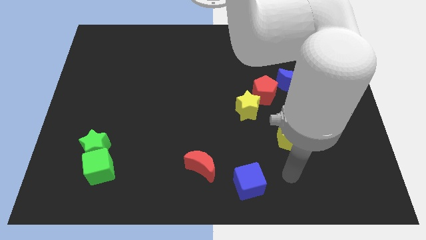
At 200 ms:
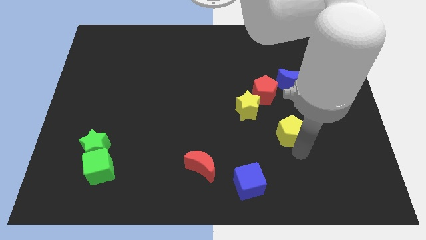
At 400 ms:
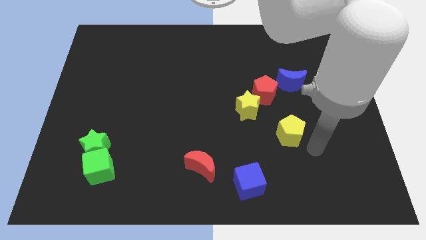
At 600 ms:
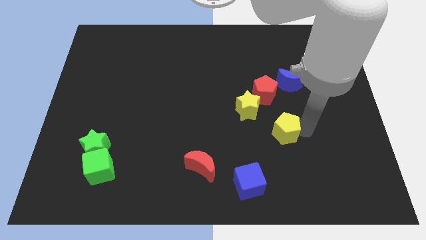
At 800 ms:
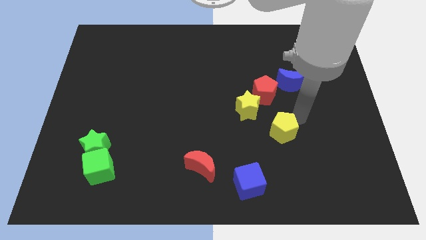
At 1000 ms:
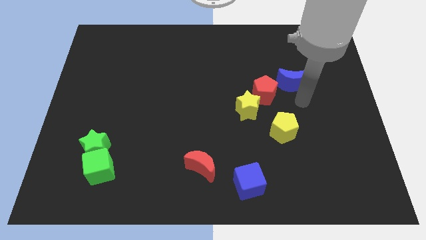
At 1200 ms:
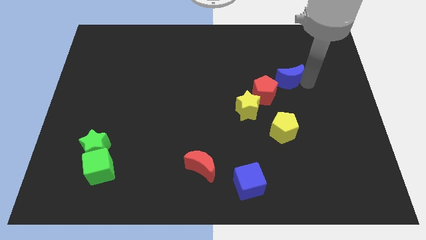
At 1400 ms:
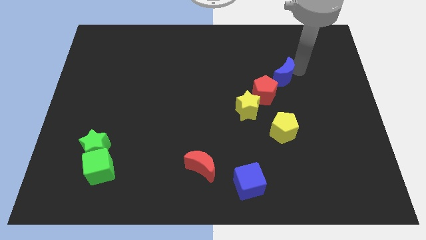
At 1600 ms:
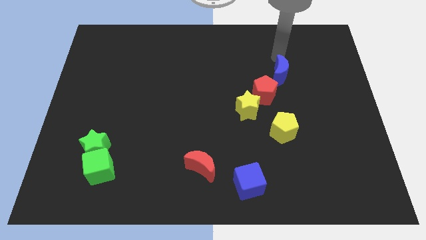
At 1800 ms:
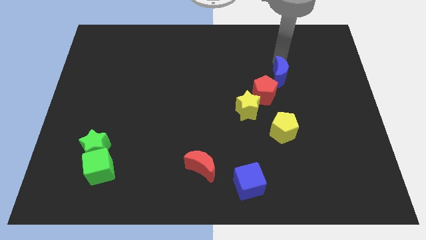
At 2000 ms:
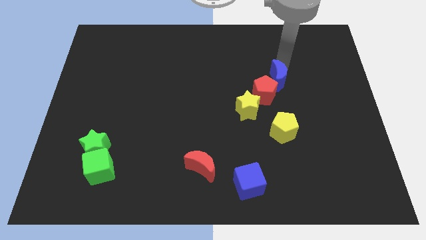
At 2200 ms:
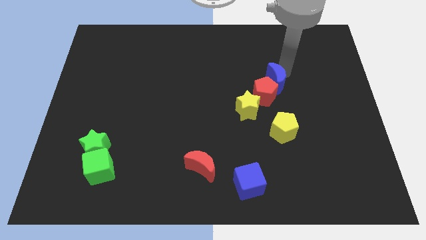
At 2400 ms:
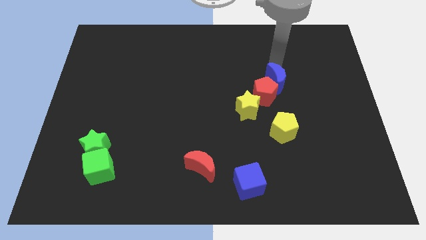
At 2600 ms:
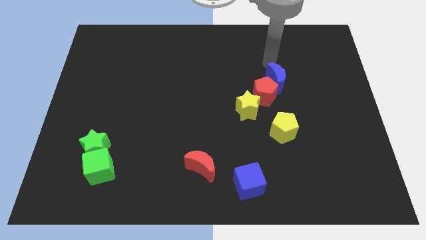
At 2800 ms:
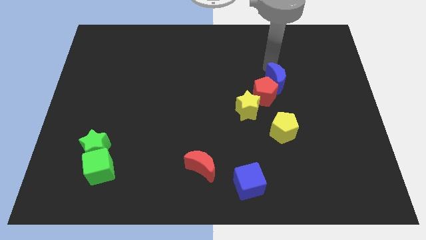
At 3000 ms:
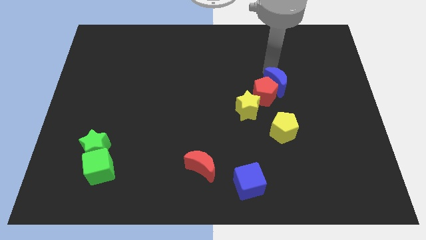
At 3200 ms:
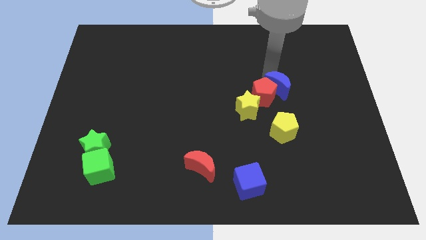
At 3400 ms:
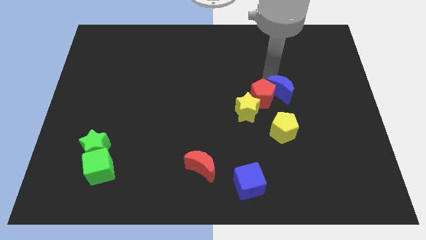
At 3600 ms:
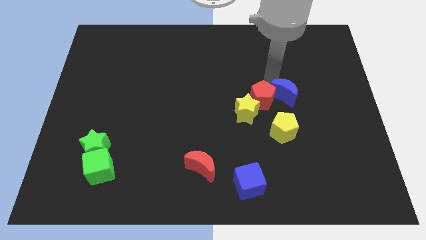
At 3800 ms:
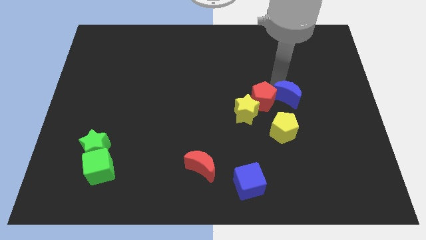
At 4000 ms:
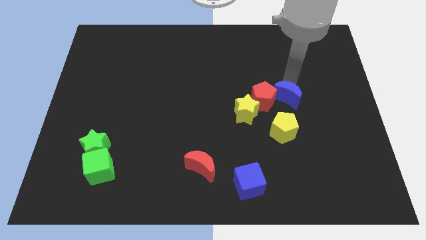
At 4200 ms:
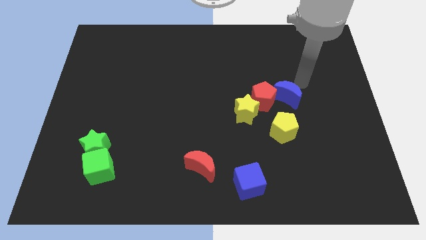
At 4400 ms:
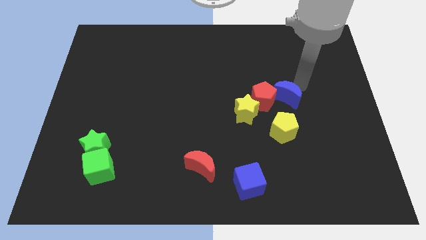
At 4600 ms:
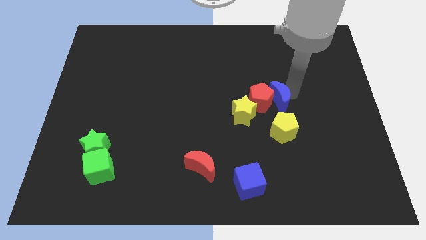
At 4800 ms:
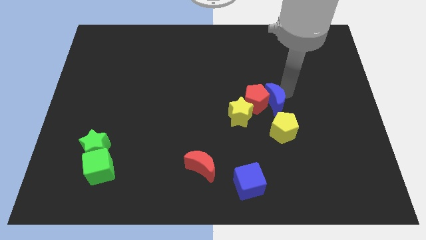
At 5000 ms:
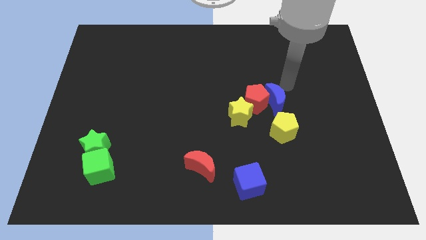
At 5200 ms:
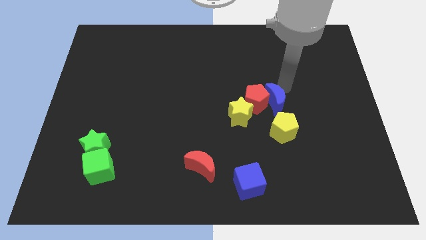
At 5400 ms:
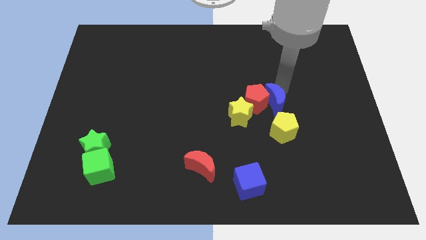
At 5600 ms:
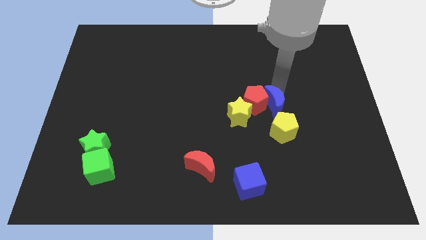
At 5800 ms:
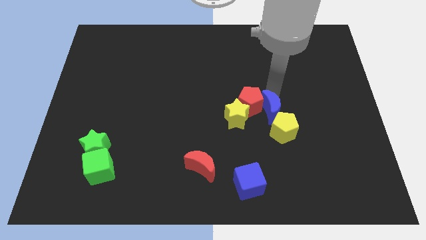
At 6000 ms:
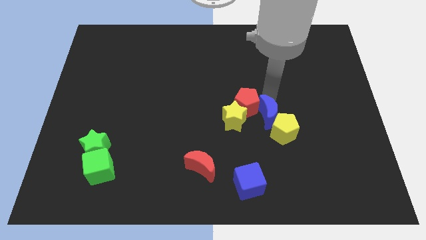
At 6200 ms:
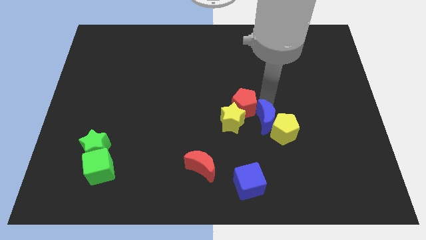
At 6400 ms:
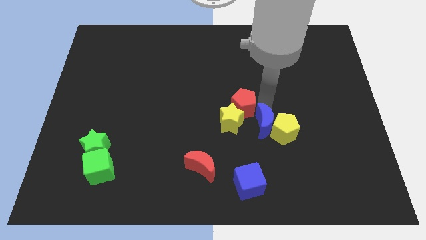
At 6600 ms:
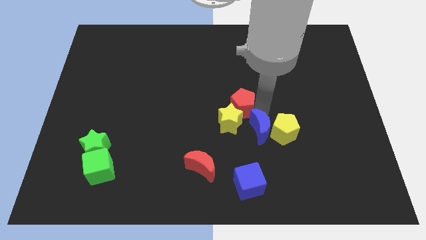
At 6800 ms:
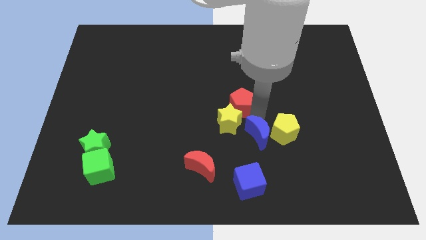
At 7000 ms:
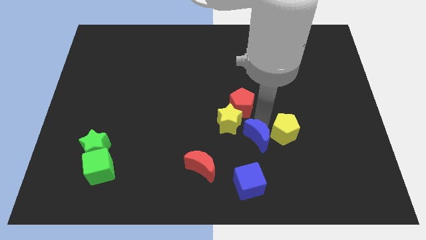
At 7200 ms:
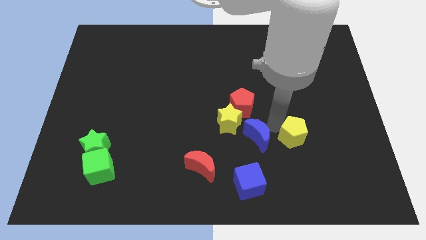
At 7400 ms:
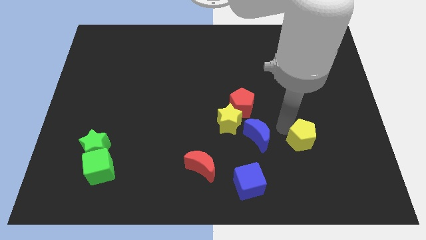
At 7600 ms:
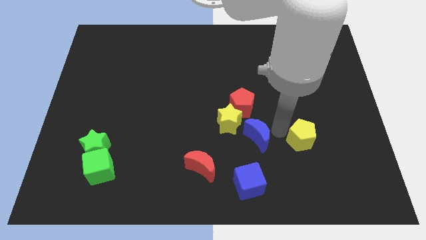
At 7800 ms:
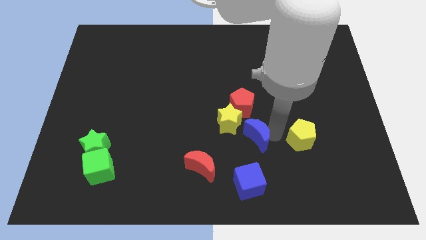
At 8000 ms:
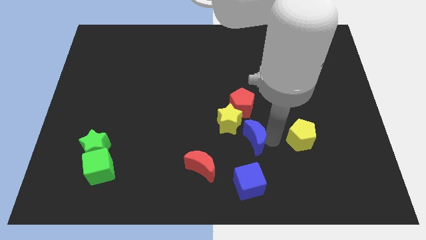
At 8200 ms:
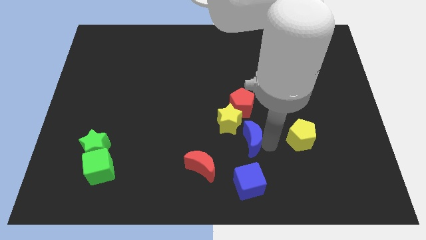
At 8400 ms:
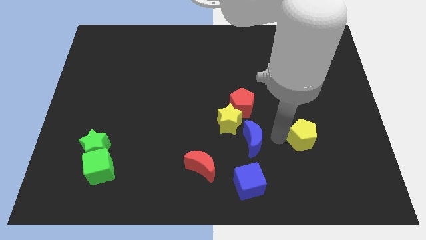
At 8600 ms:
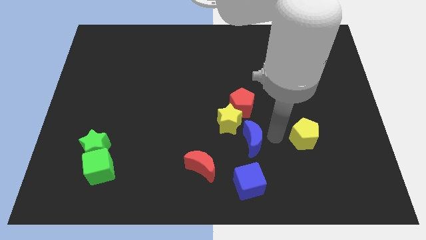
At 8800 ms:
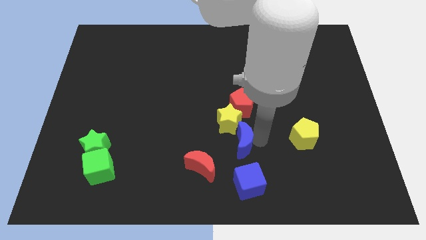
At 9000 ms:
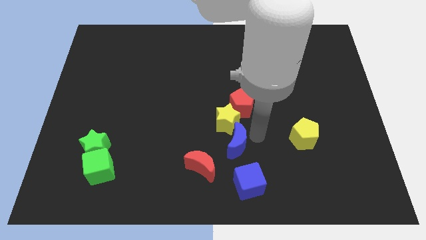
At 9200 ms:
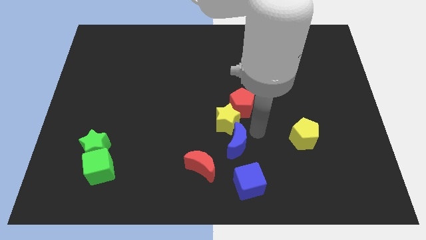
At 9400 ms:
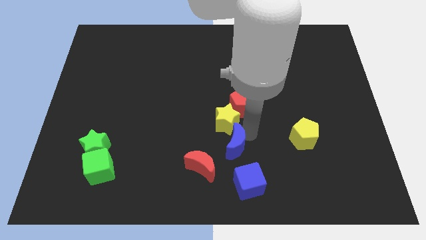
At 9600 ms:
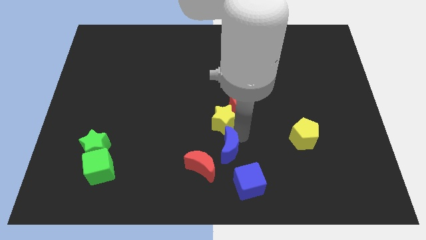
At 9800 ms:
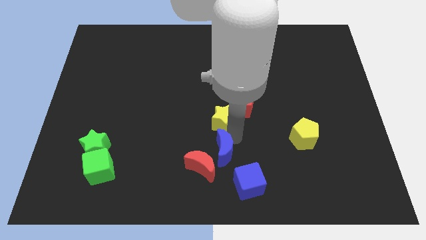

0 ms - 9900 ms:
move the blue moon next to the red moon

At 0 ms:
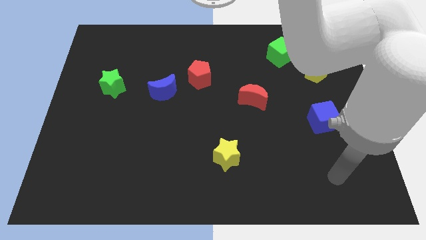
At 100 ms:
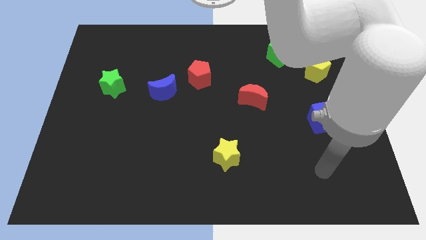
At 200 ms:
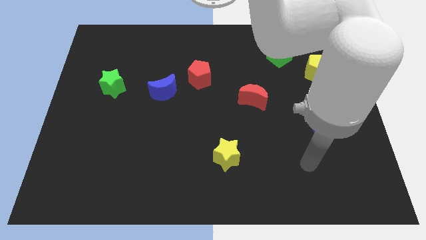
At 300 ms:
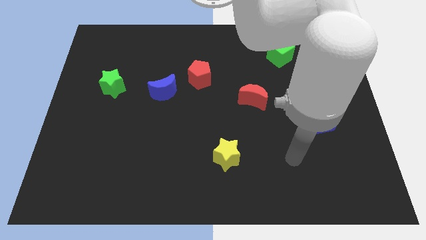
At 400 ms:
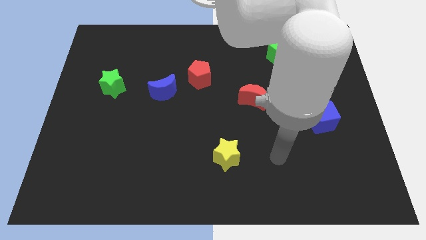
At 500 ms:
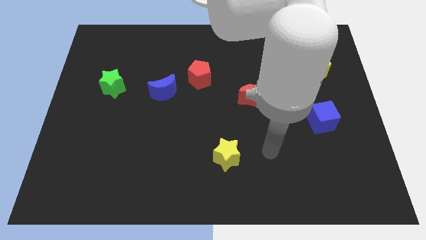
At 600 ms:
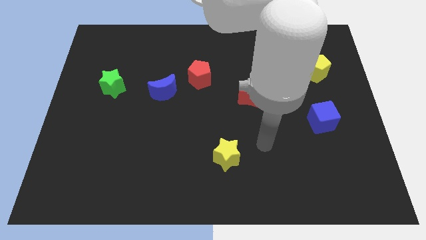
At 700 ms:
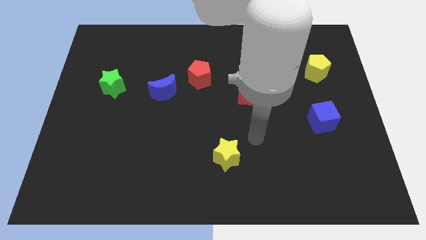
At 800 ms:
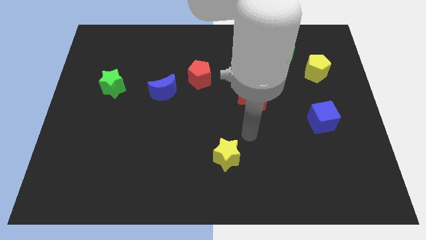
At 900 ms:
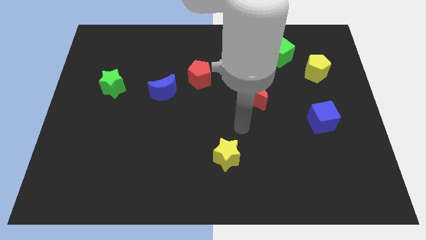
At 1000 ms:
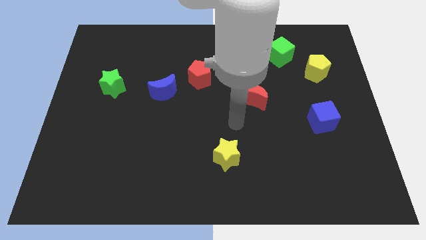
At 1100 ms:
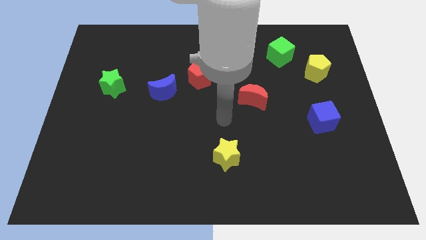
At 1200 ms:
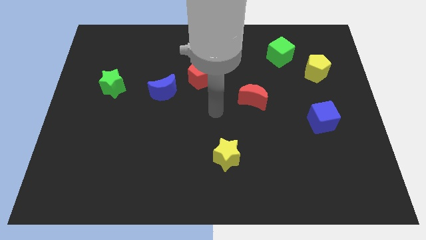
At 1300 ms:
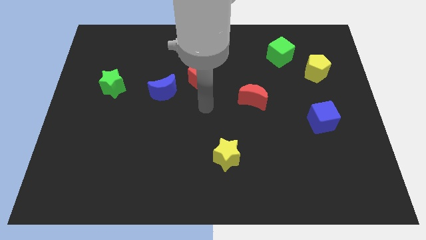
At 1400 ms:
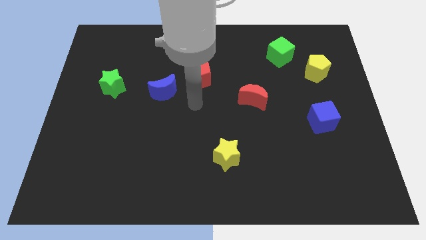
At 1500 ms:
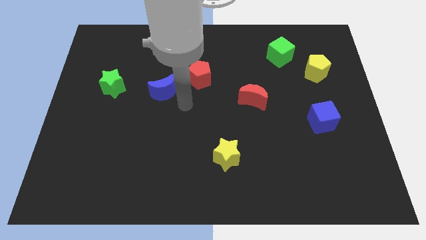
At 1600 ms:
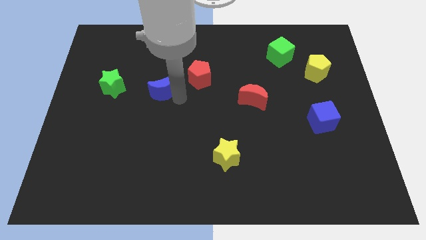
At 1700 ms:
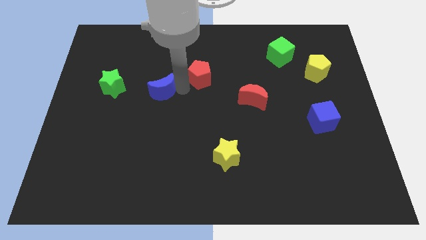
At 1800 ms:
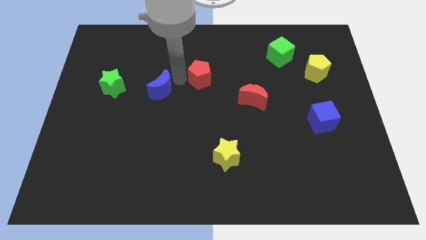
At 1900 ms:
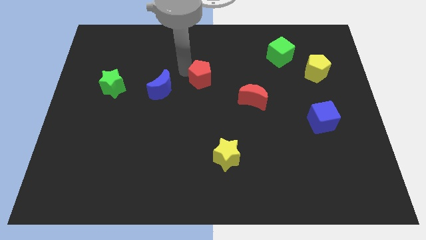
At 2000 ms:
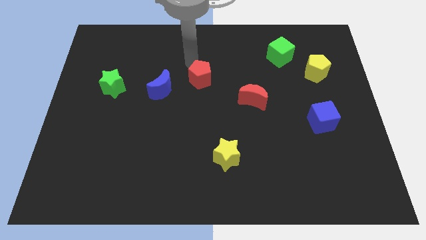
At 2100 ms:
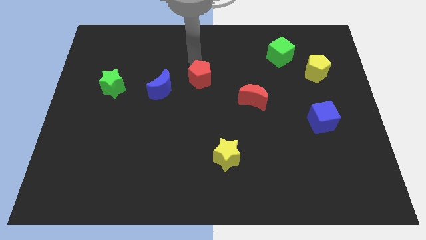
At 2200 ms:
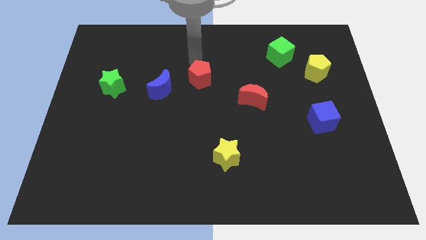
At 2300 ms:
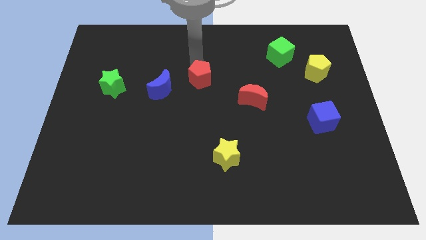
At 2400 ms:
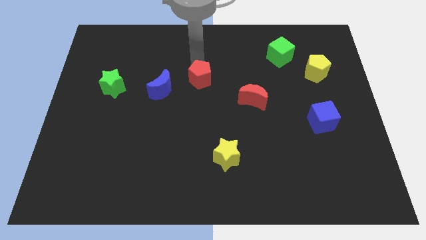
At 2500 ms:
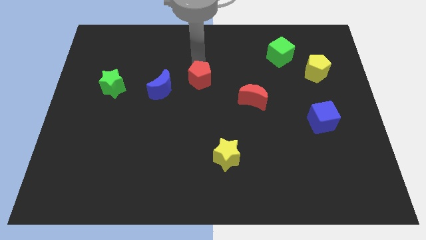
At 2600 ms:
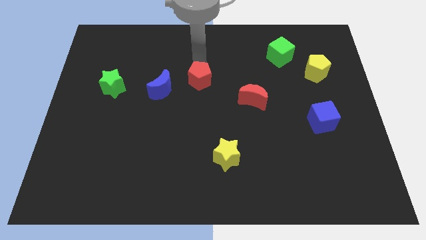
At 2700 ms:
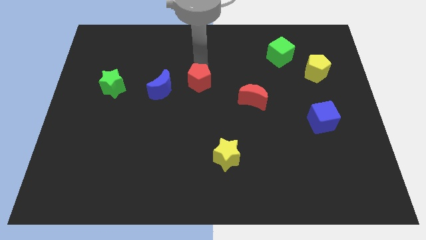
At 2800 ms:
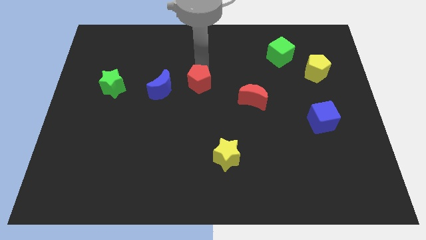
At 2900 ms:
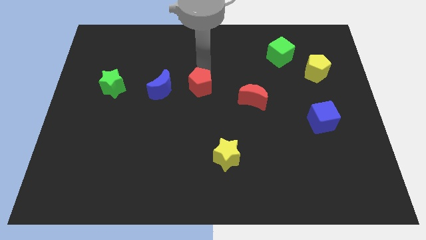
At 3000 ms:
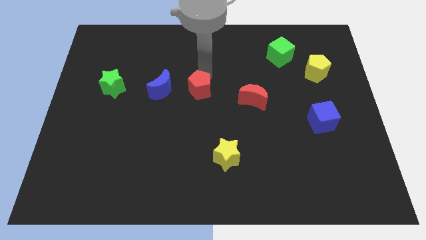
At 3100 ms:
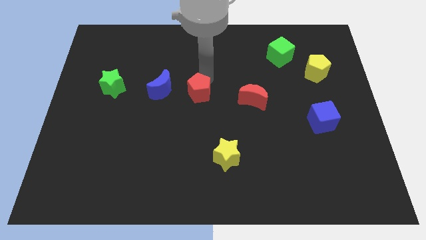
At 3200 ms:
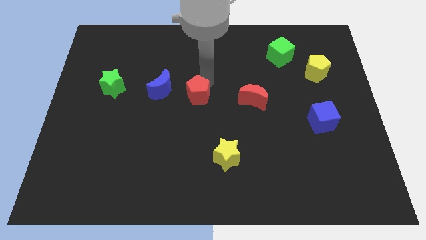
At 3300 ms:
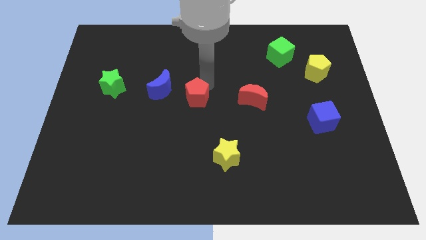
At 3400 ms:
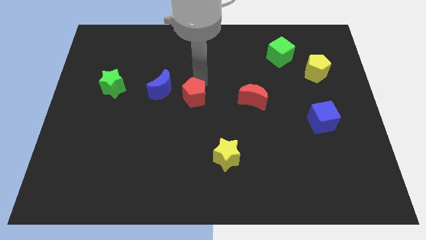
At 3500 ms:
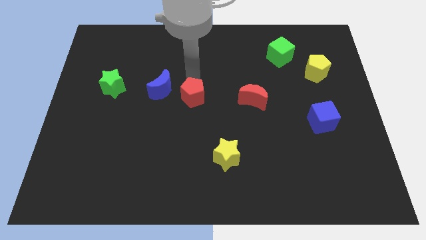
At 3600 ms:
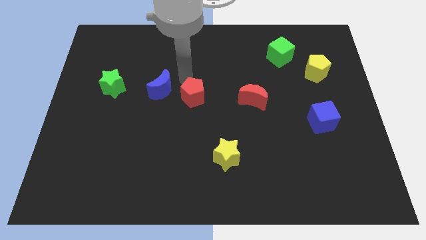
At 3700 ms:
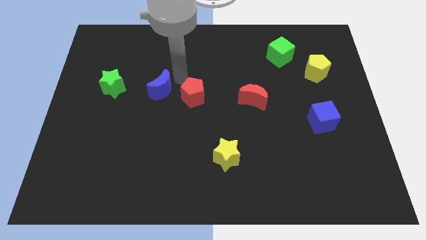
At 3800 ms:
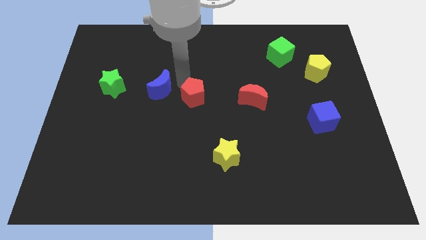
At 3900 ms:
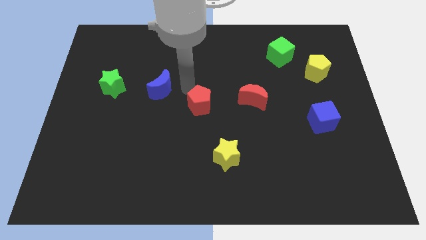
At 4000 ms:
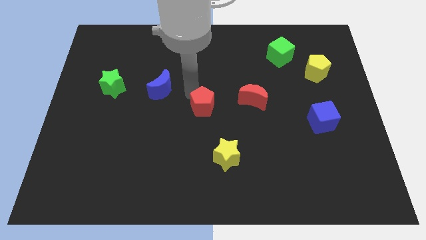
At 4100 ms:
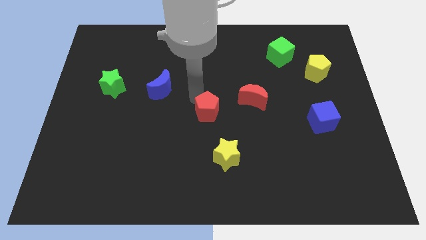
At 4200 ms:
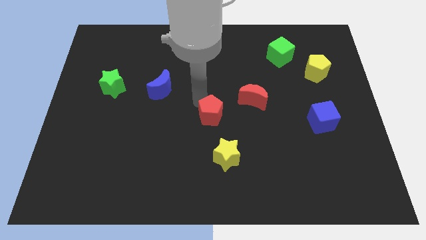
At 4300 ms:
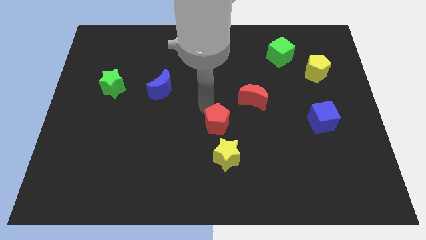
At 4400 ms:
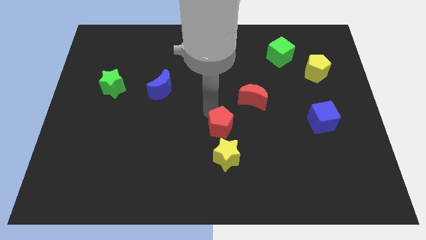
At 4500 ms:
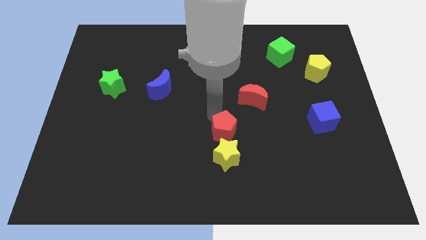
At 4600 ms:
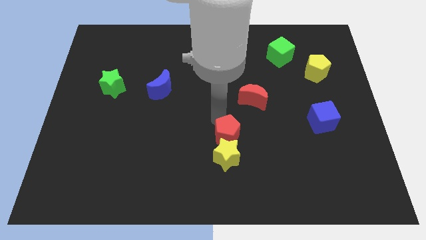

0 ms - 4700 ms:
slide the red pentagon next to the yellow star
